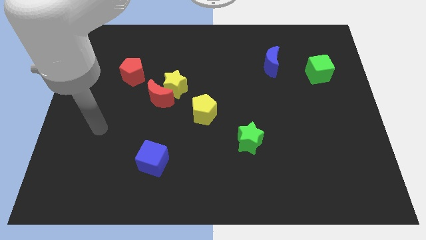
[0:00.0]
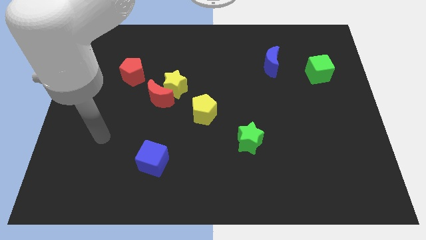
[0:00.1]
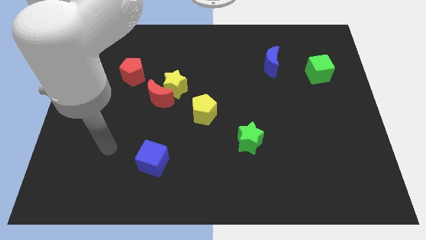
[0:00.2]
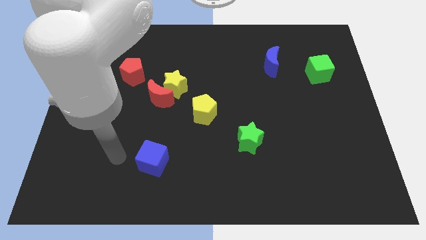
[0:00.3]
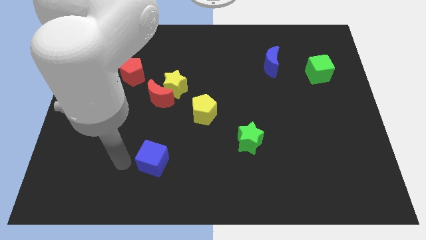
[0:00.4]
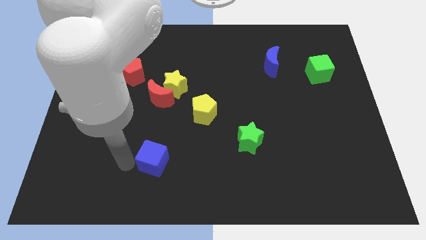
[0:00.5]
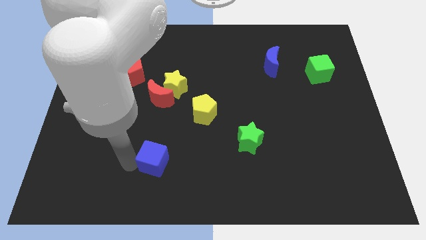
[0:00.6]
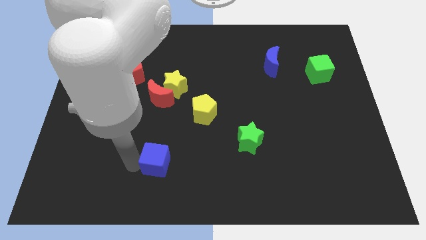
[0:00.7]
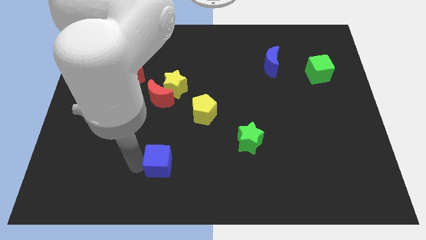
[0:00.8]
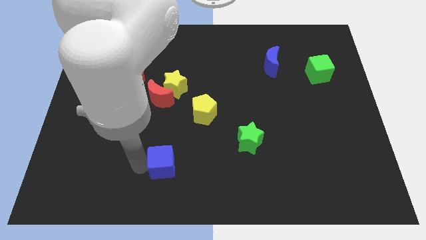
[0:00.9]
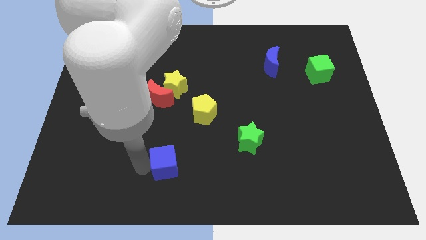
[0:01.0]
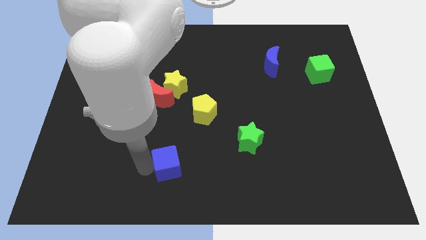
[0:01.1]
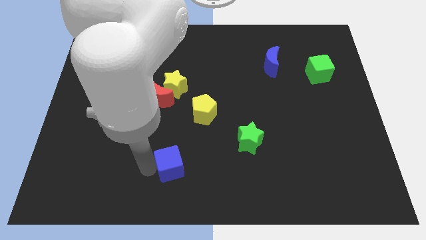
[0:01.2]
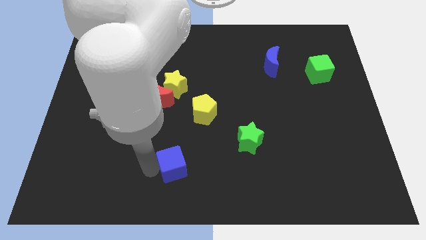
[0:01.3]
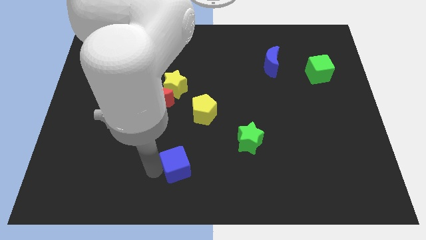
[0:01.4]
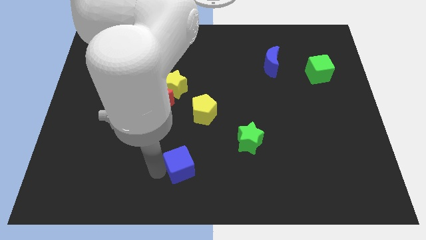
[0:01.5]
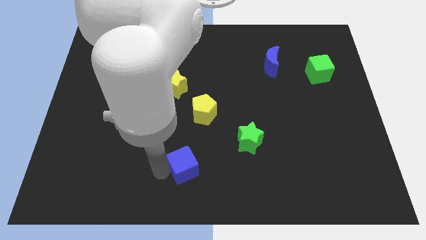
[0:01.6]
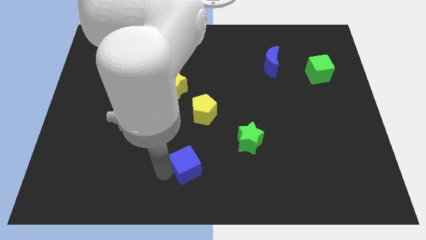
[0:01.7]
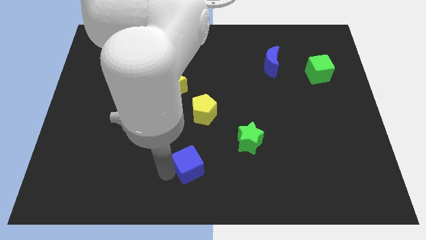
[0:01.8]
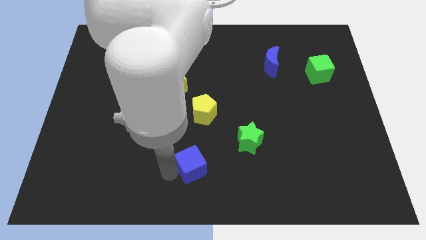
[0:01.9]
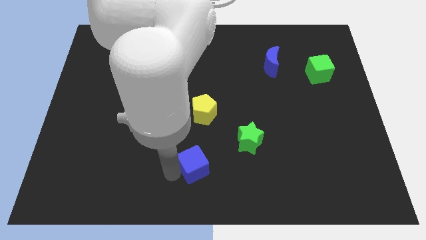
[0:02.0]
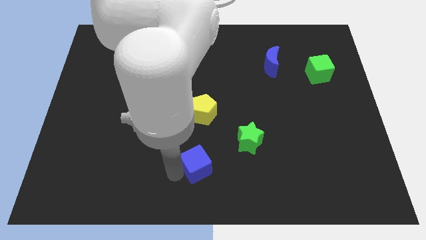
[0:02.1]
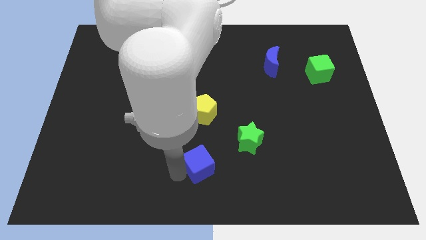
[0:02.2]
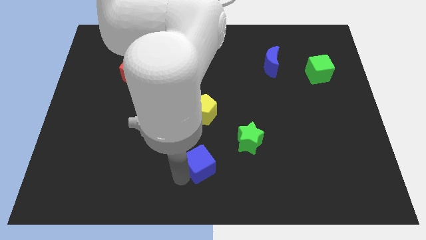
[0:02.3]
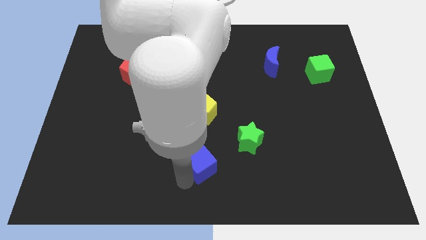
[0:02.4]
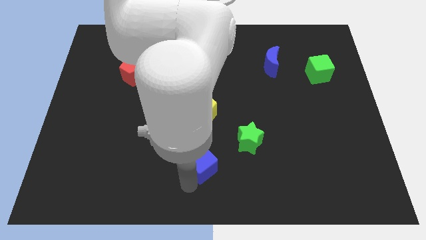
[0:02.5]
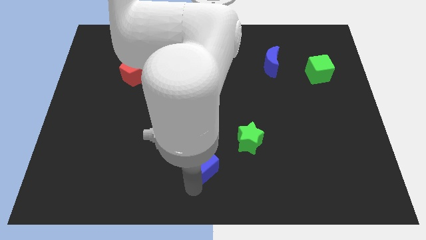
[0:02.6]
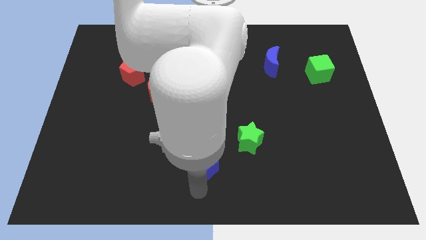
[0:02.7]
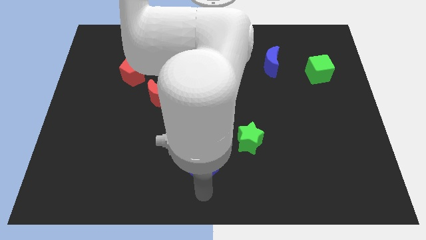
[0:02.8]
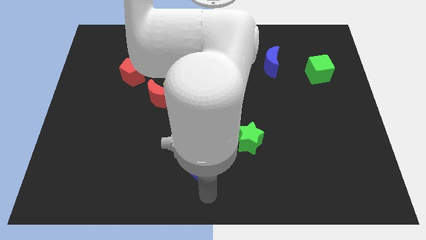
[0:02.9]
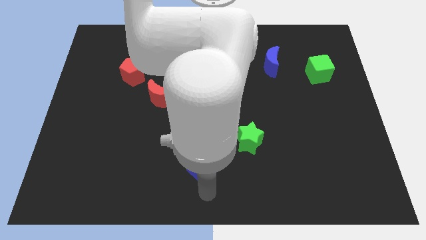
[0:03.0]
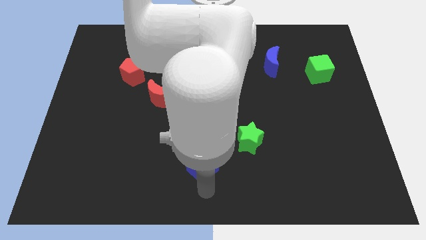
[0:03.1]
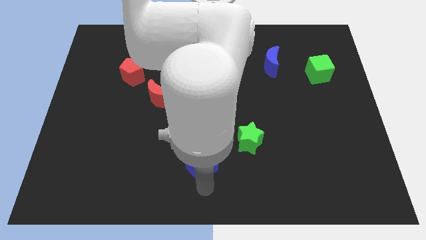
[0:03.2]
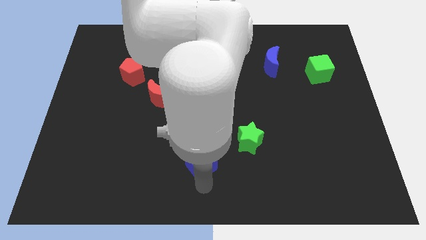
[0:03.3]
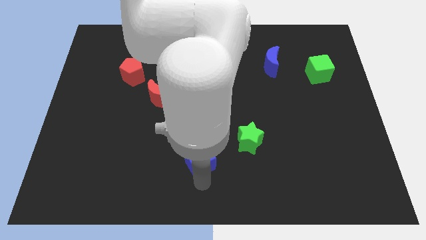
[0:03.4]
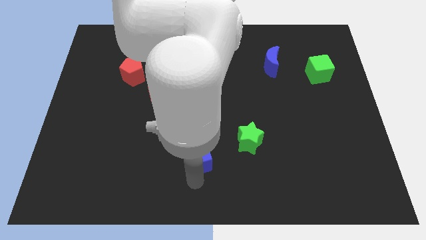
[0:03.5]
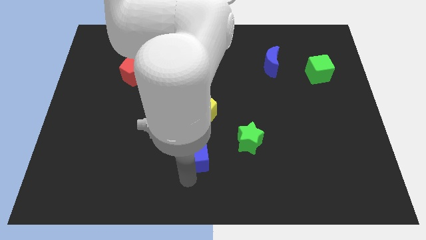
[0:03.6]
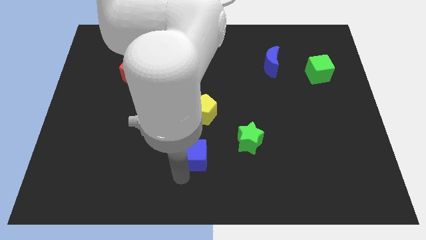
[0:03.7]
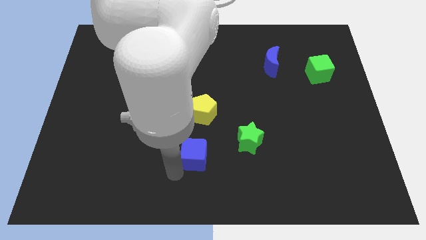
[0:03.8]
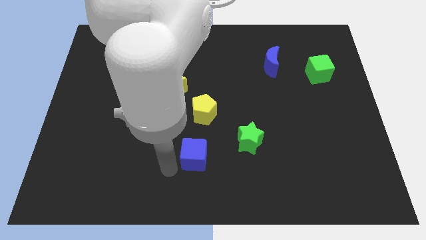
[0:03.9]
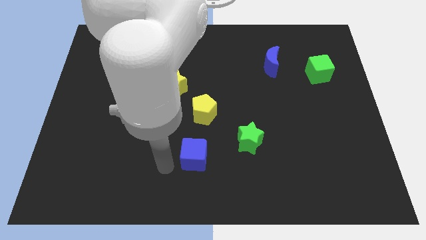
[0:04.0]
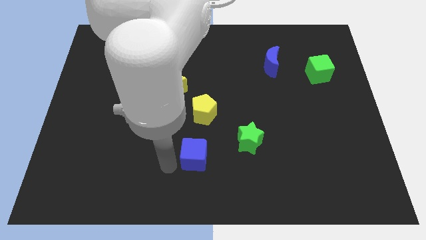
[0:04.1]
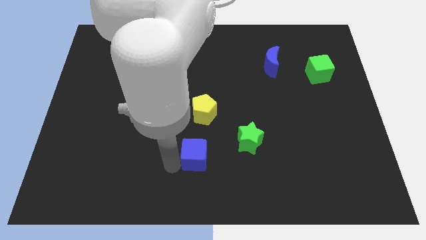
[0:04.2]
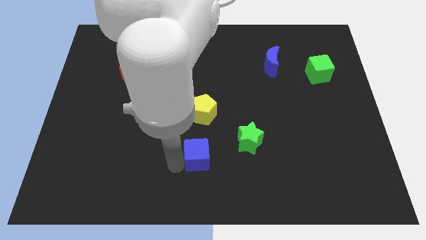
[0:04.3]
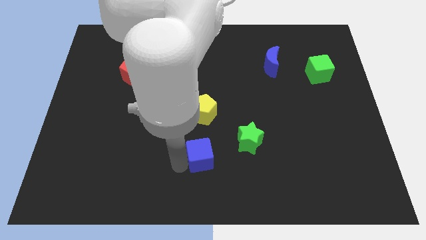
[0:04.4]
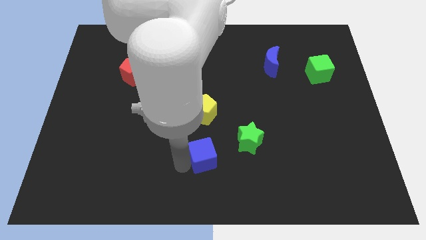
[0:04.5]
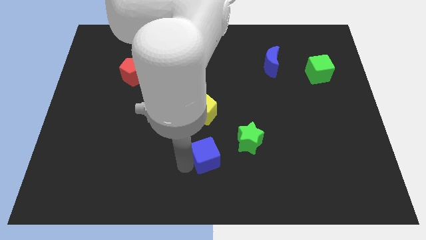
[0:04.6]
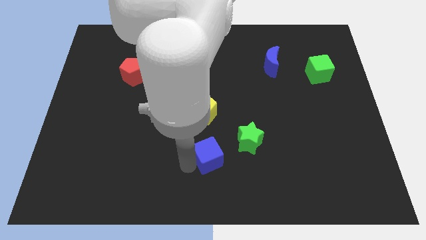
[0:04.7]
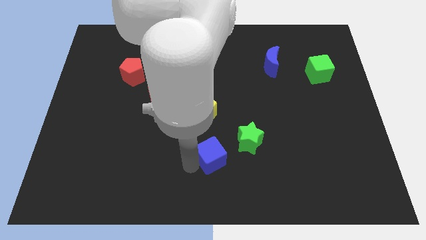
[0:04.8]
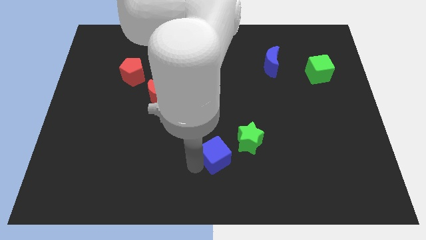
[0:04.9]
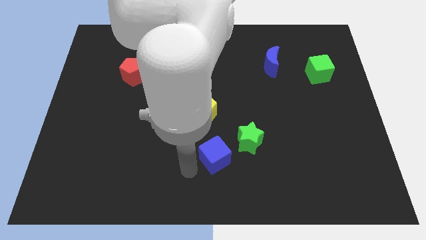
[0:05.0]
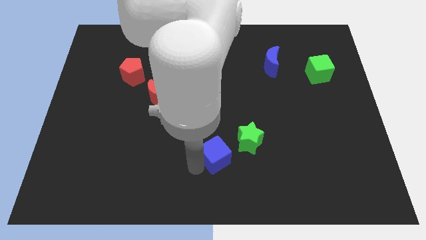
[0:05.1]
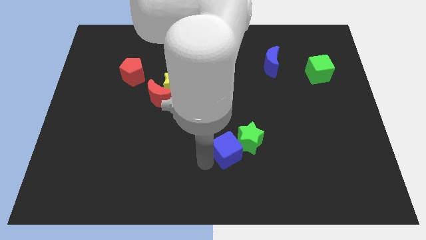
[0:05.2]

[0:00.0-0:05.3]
slide the blue cube close to the green star

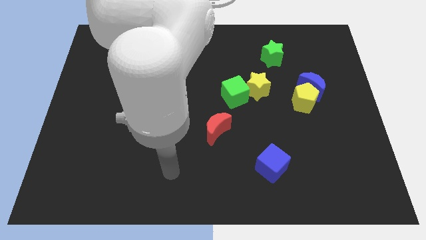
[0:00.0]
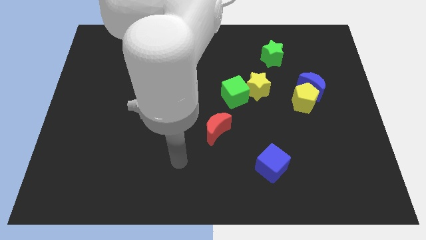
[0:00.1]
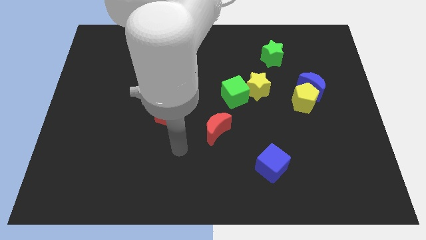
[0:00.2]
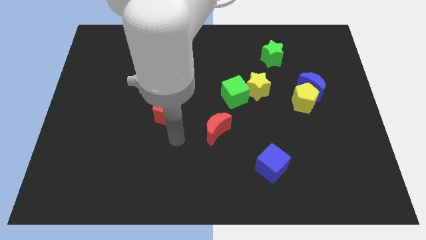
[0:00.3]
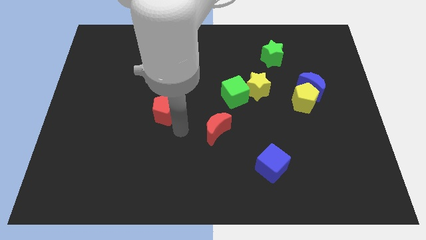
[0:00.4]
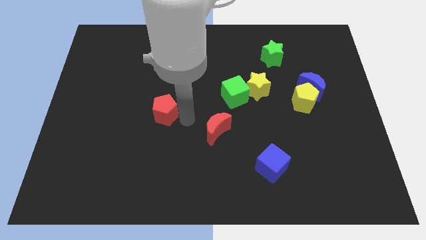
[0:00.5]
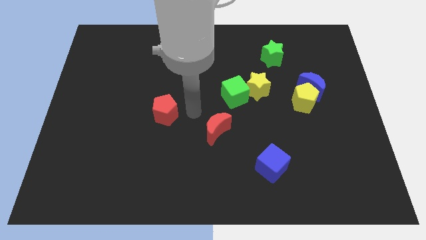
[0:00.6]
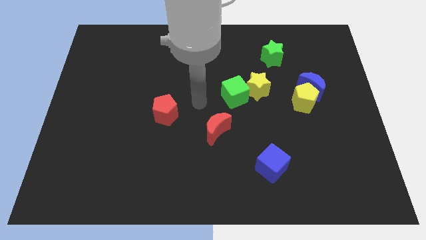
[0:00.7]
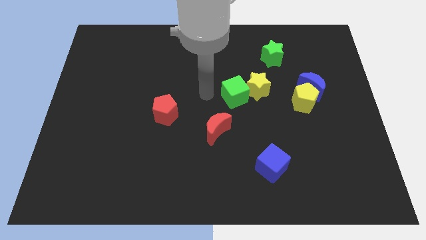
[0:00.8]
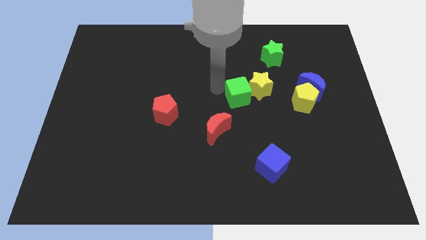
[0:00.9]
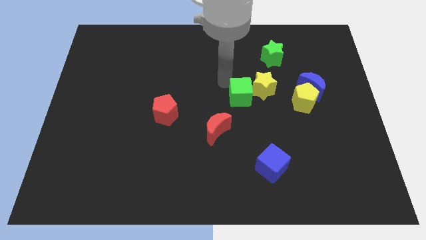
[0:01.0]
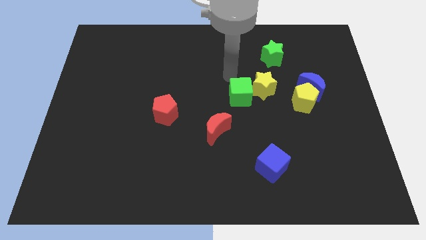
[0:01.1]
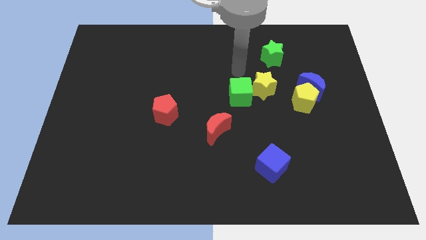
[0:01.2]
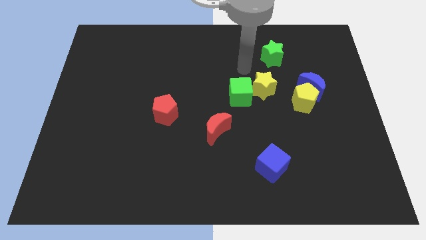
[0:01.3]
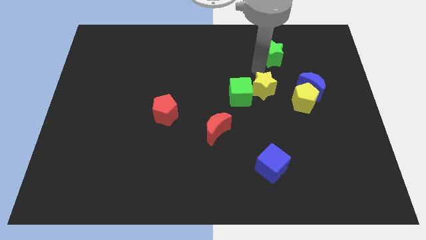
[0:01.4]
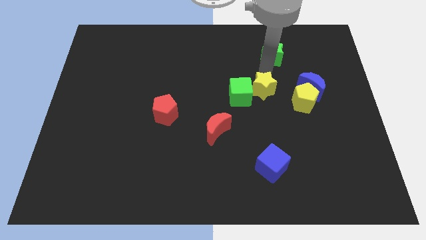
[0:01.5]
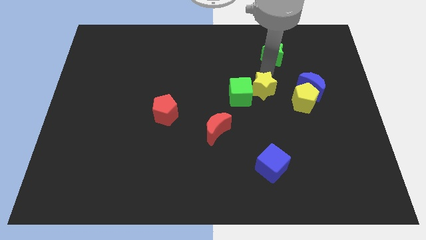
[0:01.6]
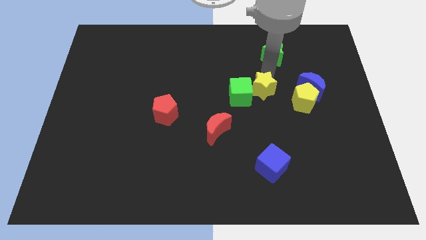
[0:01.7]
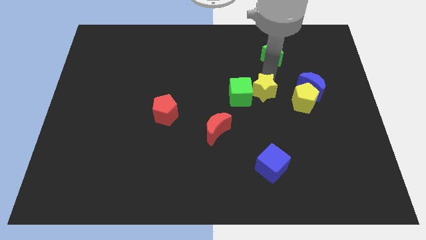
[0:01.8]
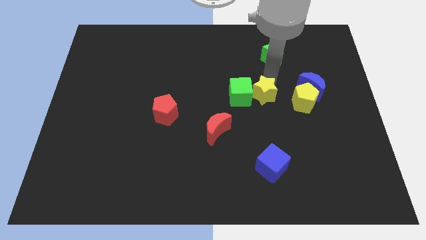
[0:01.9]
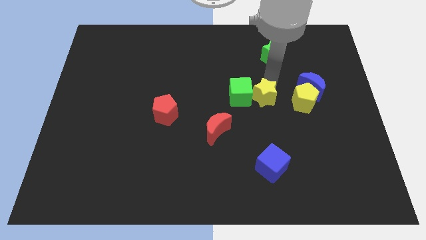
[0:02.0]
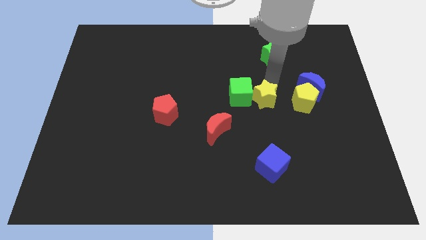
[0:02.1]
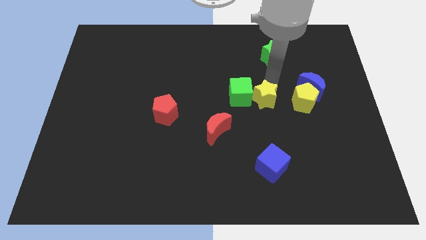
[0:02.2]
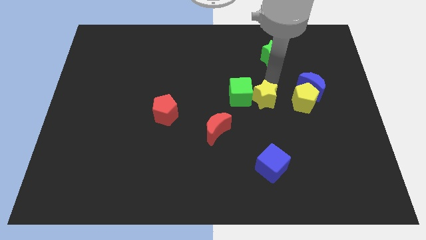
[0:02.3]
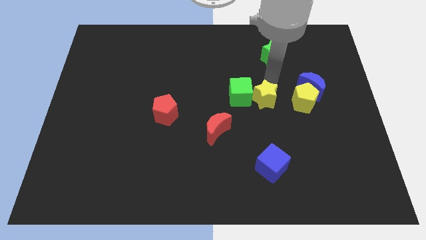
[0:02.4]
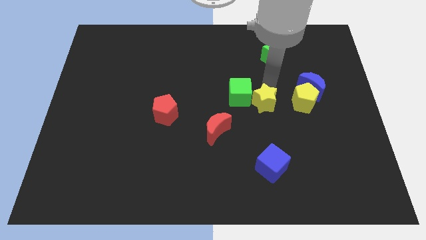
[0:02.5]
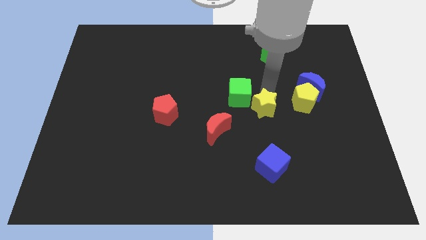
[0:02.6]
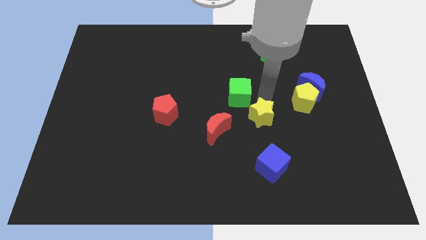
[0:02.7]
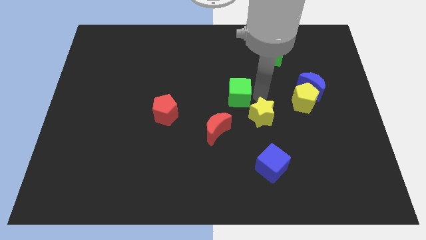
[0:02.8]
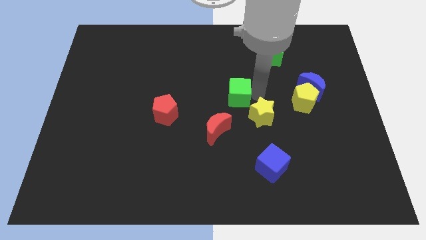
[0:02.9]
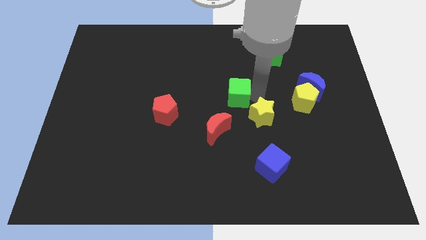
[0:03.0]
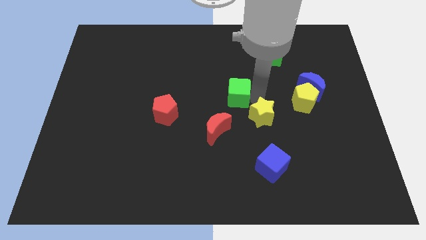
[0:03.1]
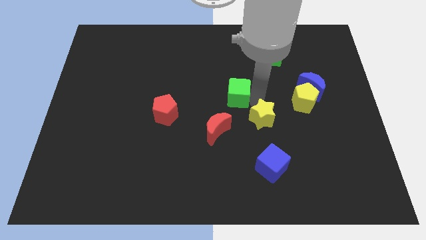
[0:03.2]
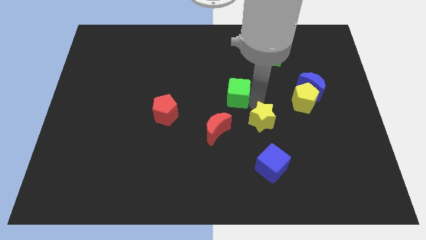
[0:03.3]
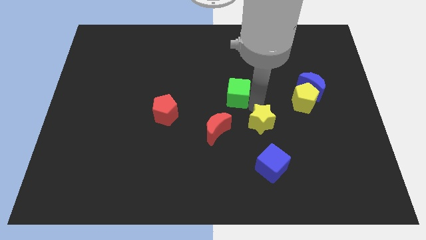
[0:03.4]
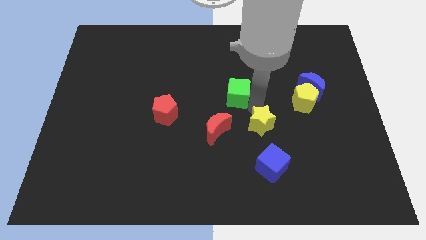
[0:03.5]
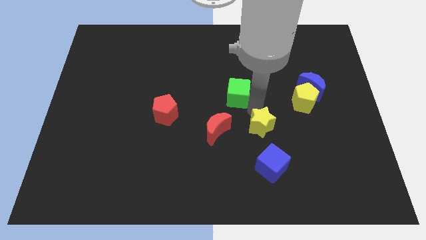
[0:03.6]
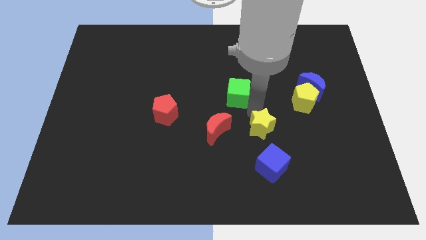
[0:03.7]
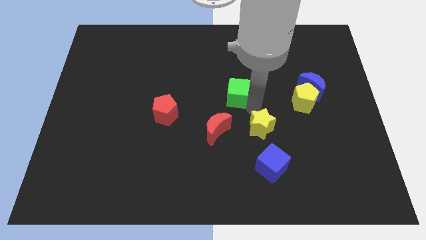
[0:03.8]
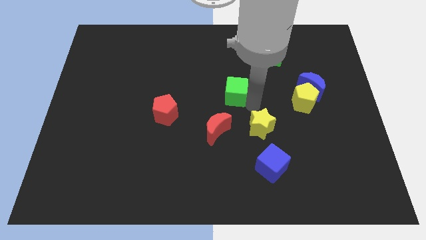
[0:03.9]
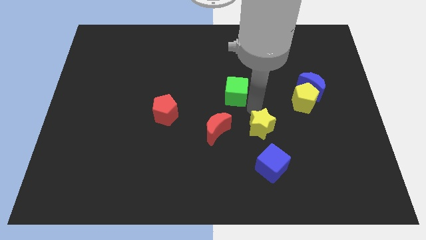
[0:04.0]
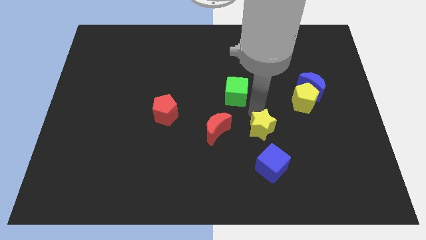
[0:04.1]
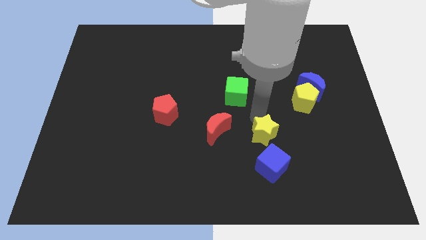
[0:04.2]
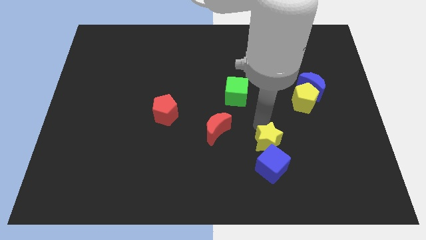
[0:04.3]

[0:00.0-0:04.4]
put the yellow star towards the blue cube
